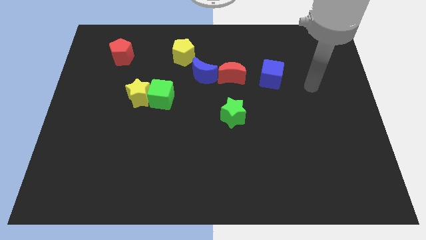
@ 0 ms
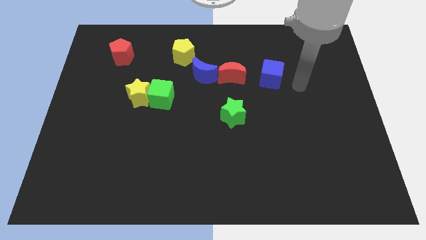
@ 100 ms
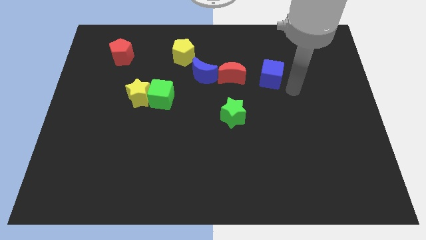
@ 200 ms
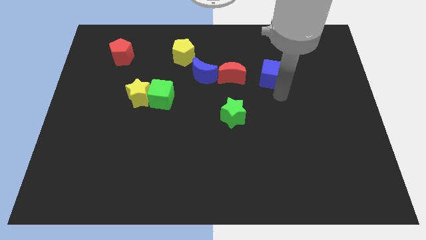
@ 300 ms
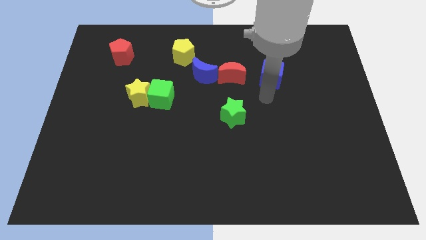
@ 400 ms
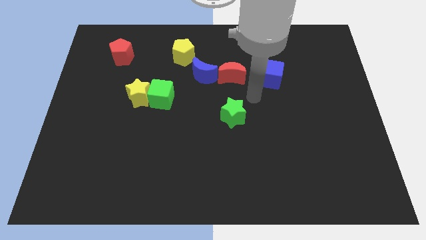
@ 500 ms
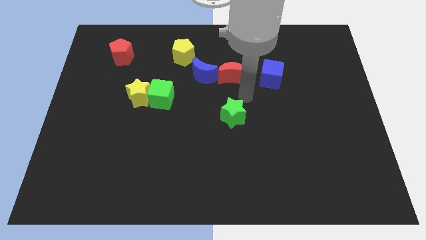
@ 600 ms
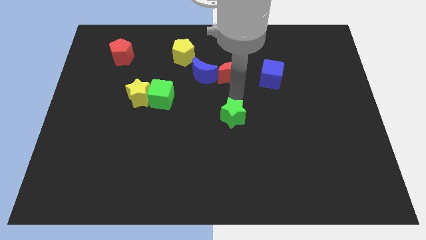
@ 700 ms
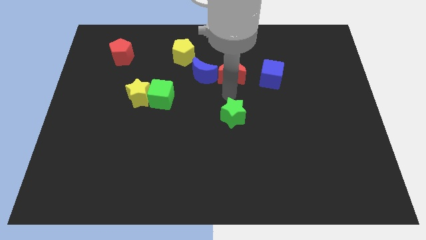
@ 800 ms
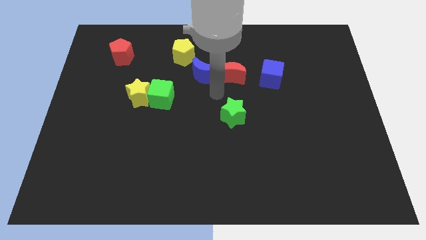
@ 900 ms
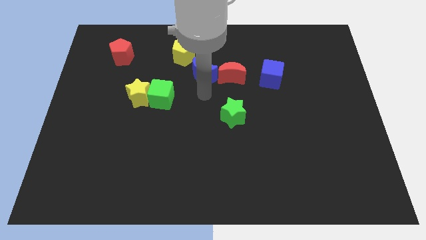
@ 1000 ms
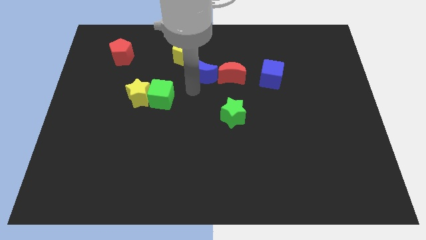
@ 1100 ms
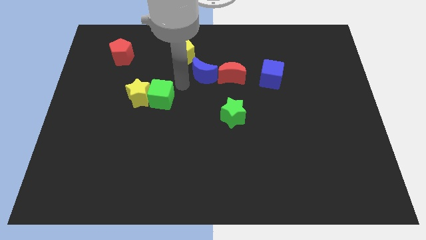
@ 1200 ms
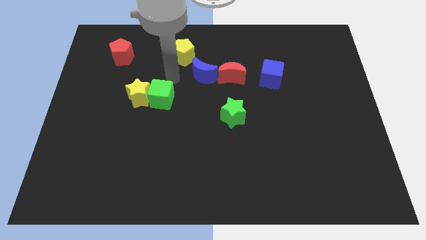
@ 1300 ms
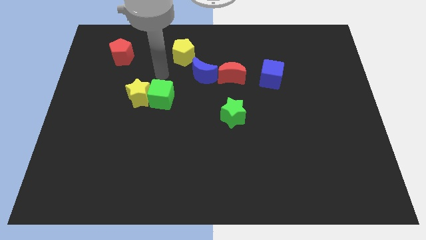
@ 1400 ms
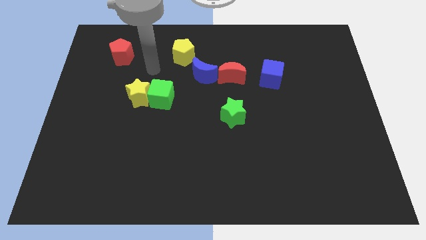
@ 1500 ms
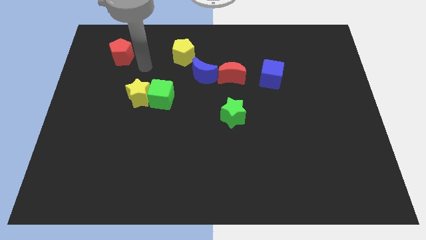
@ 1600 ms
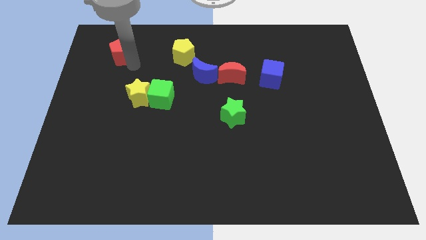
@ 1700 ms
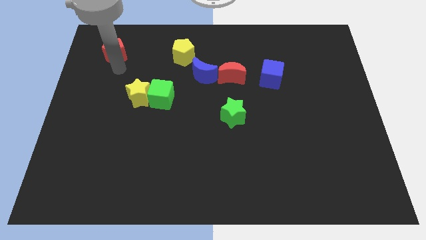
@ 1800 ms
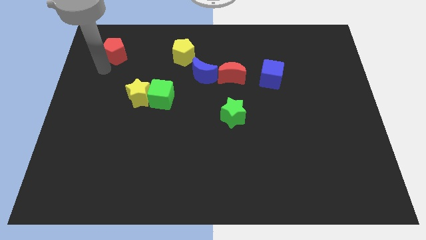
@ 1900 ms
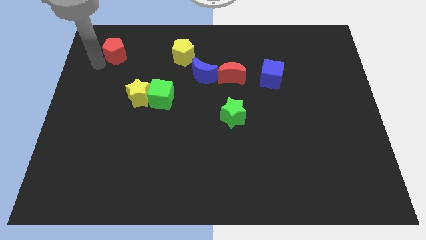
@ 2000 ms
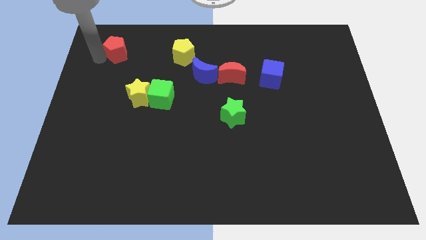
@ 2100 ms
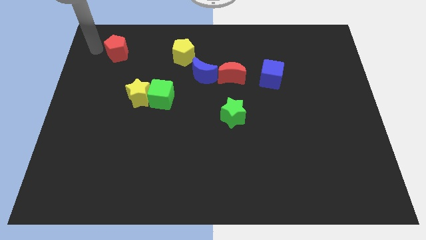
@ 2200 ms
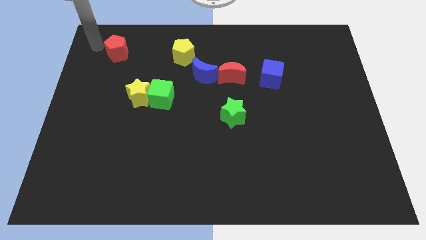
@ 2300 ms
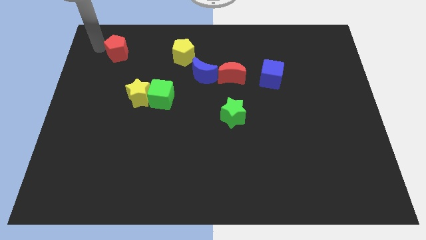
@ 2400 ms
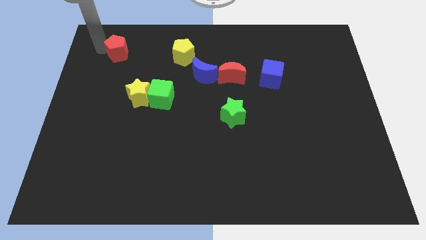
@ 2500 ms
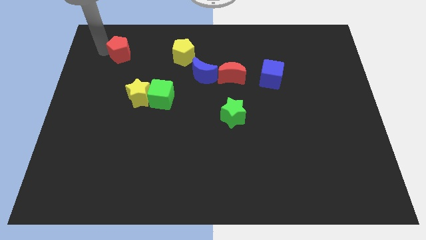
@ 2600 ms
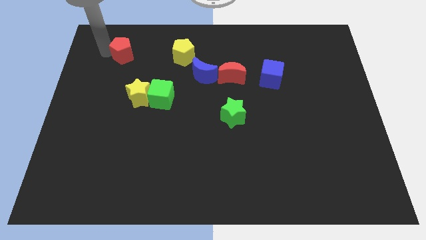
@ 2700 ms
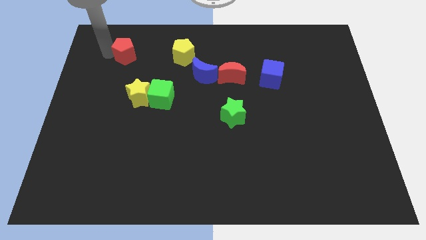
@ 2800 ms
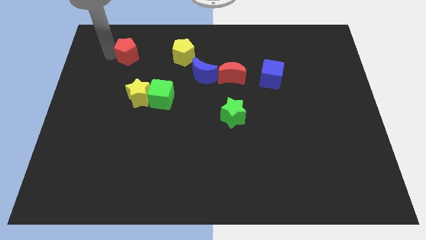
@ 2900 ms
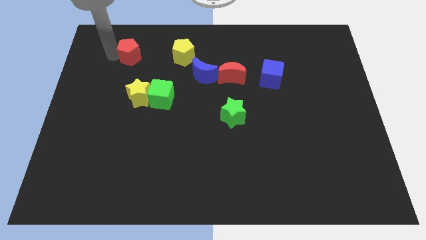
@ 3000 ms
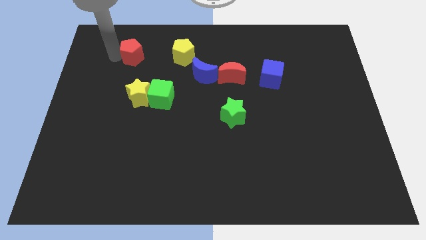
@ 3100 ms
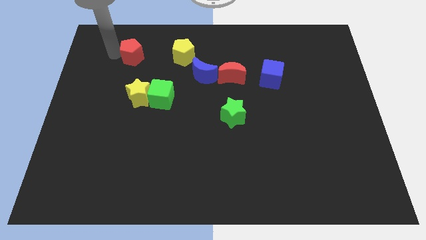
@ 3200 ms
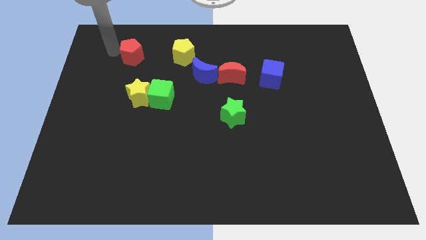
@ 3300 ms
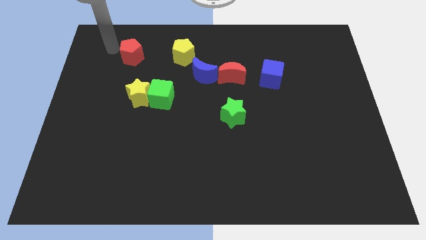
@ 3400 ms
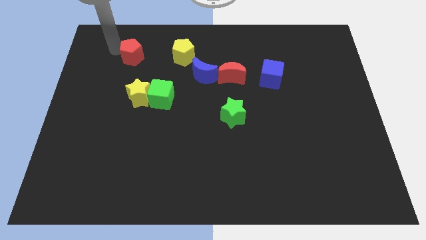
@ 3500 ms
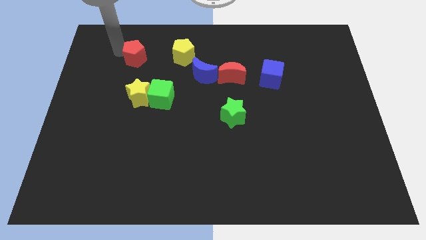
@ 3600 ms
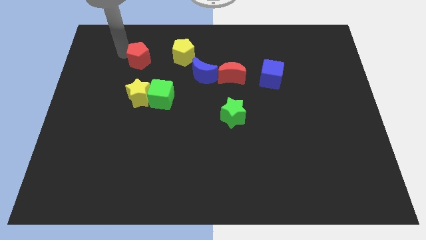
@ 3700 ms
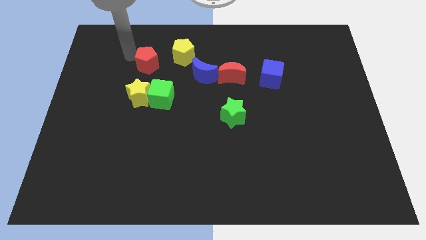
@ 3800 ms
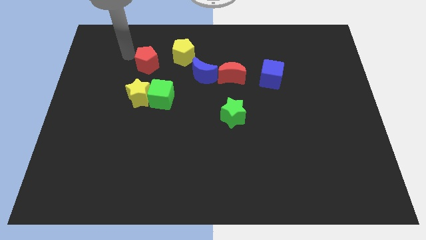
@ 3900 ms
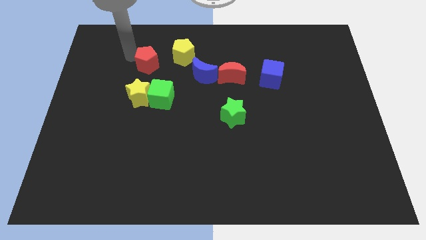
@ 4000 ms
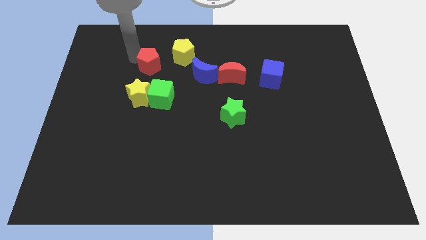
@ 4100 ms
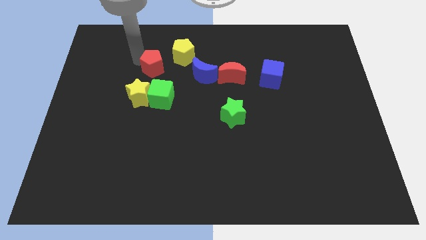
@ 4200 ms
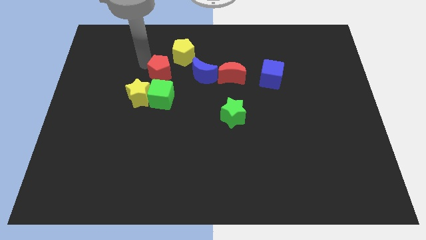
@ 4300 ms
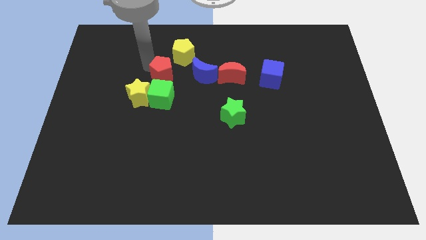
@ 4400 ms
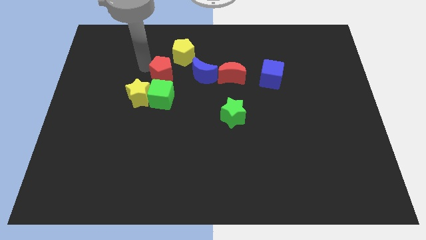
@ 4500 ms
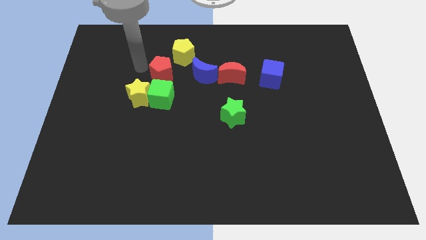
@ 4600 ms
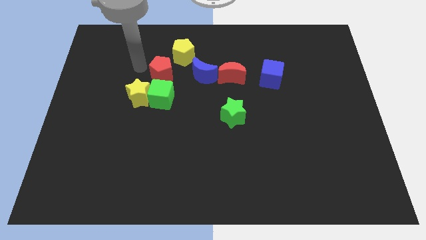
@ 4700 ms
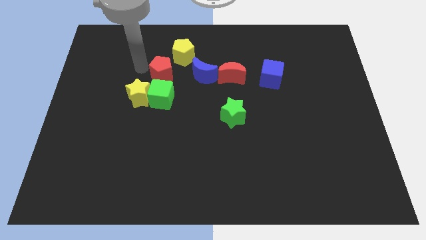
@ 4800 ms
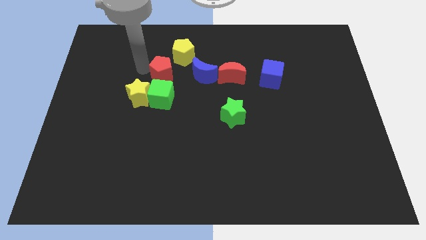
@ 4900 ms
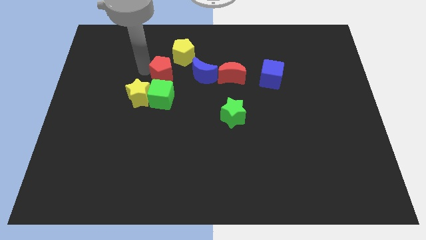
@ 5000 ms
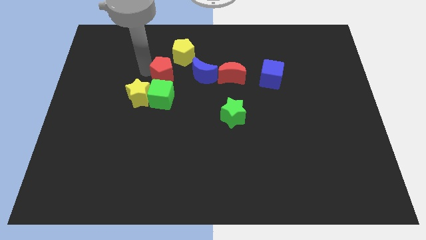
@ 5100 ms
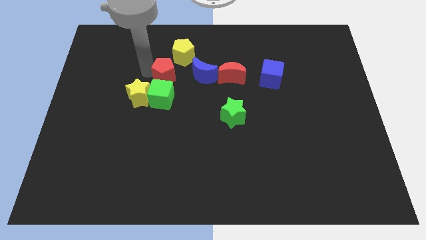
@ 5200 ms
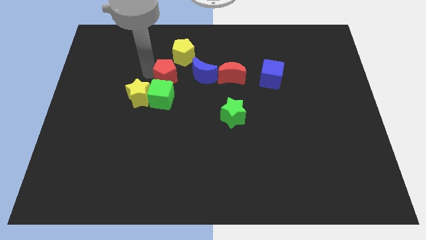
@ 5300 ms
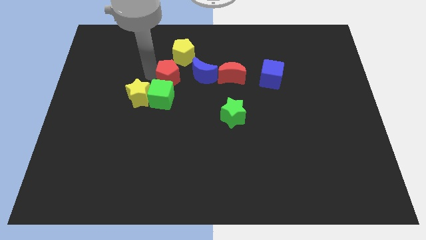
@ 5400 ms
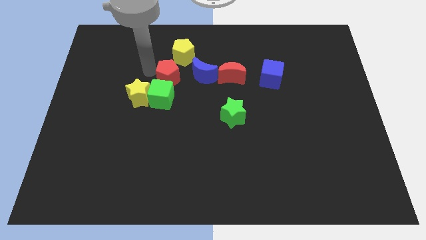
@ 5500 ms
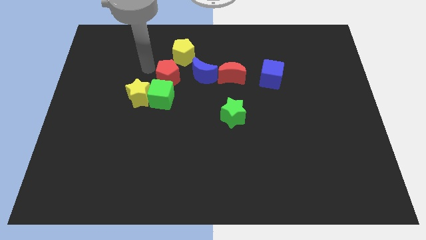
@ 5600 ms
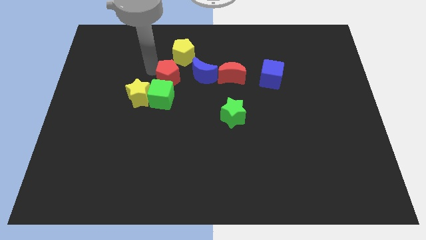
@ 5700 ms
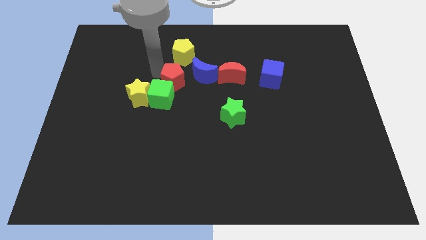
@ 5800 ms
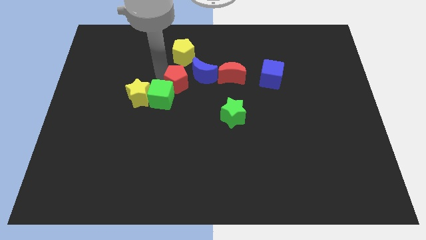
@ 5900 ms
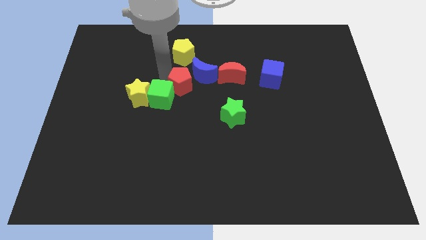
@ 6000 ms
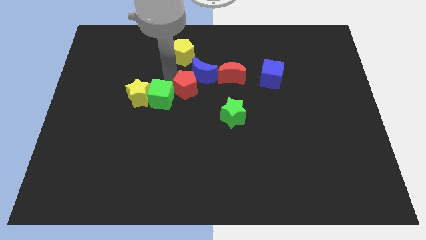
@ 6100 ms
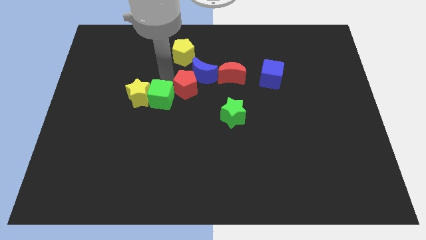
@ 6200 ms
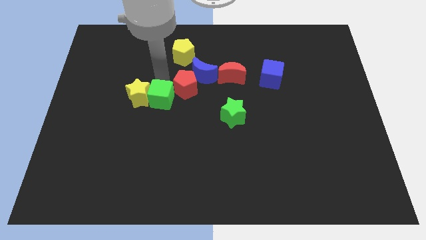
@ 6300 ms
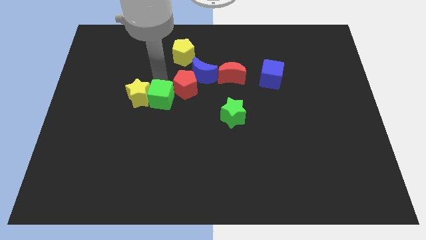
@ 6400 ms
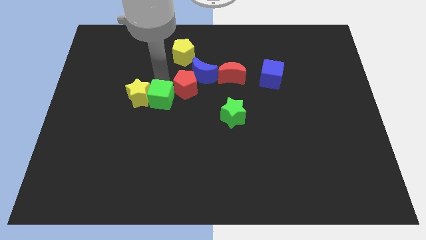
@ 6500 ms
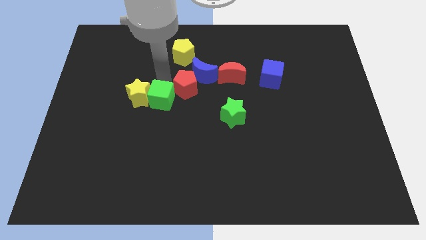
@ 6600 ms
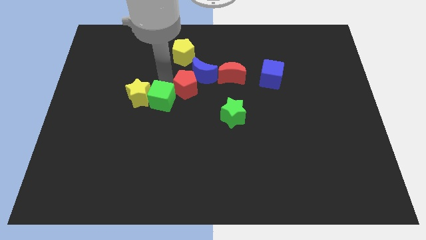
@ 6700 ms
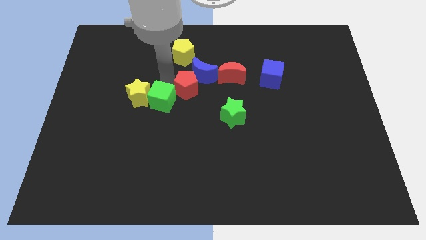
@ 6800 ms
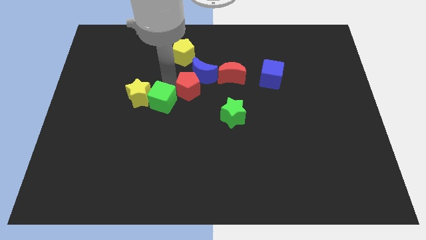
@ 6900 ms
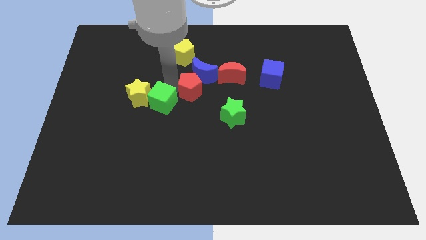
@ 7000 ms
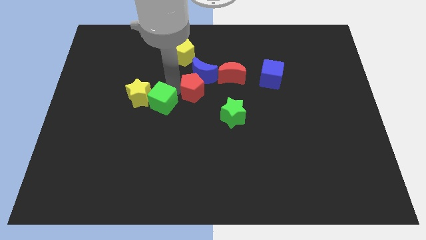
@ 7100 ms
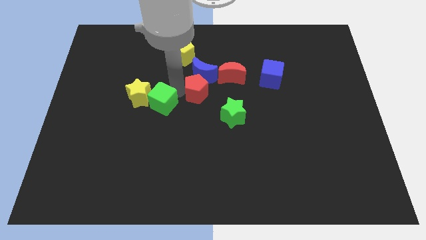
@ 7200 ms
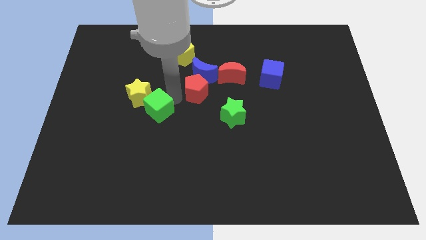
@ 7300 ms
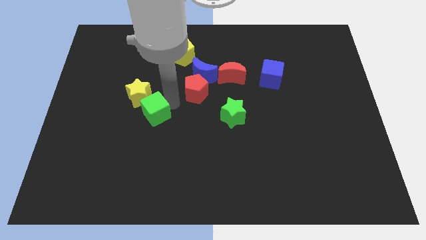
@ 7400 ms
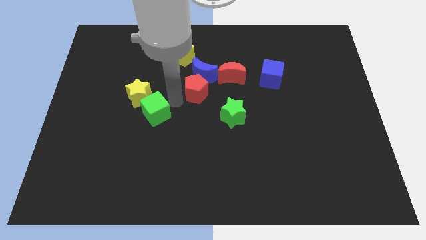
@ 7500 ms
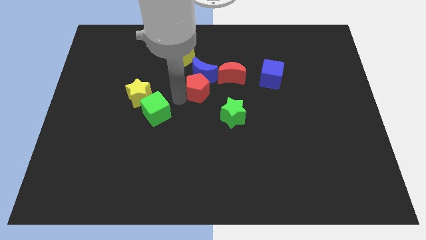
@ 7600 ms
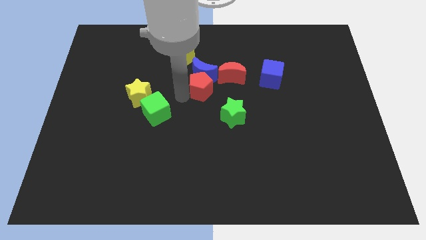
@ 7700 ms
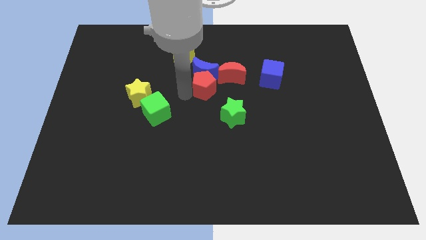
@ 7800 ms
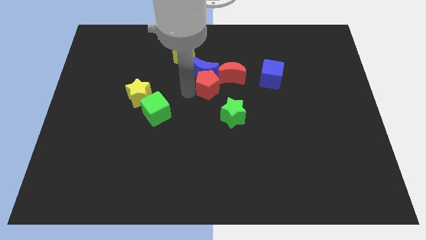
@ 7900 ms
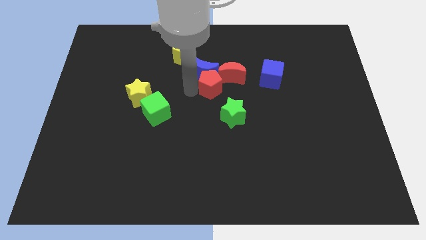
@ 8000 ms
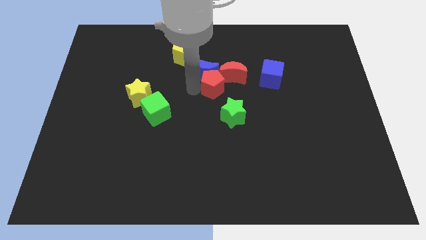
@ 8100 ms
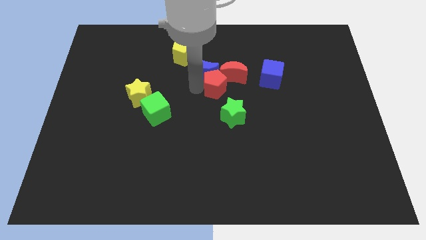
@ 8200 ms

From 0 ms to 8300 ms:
put the red pentagon close to the red moon
